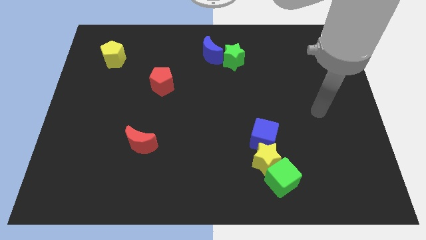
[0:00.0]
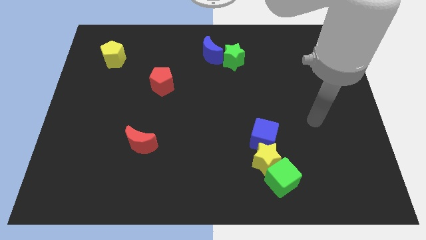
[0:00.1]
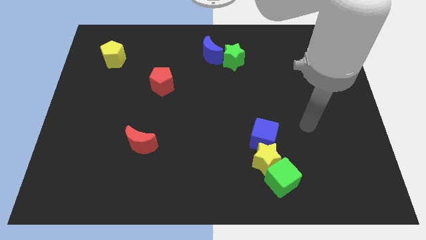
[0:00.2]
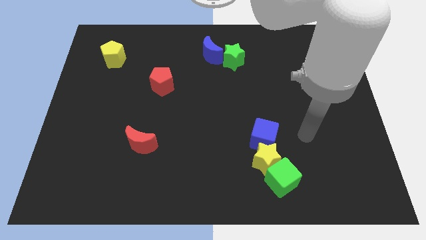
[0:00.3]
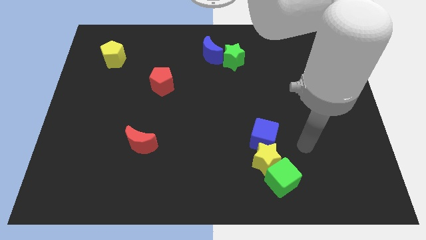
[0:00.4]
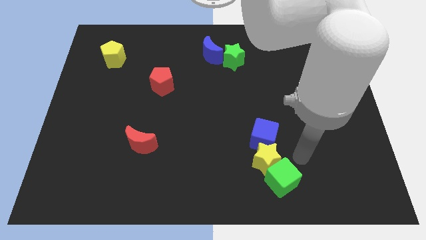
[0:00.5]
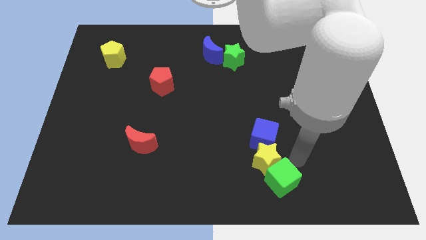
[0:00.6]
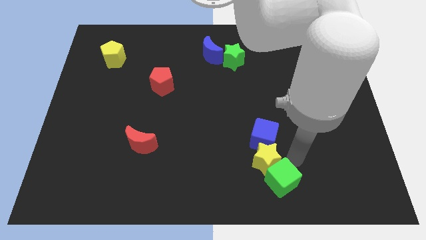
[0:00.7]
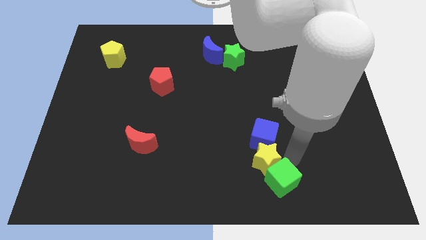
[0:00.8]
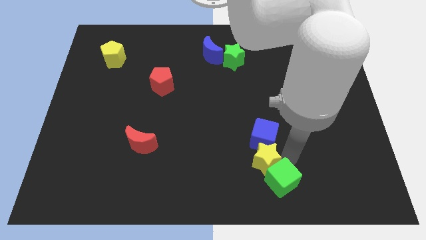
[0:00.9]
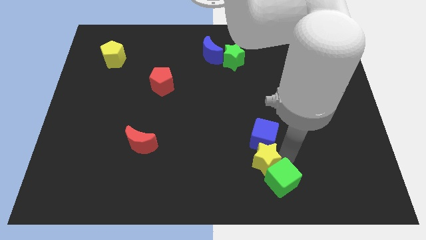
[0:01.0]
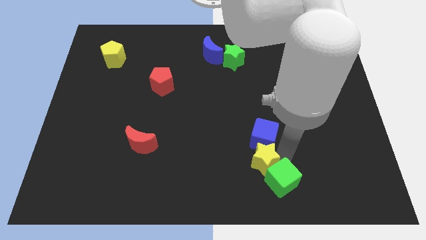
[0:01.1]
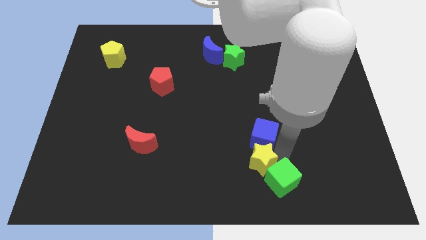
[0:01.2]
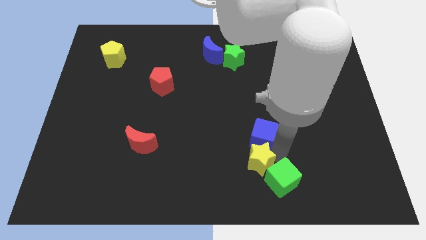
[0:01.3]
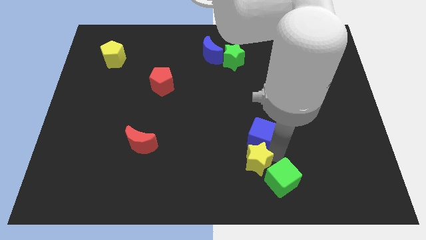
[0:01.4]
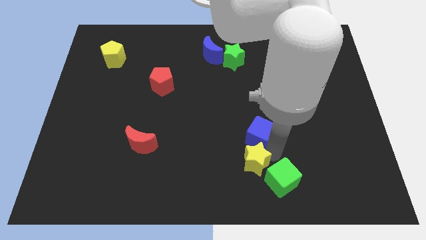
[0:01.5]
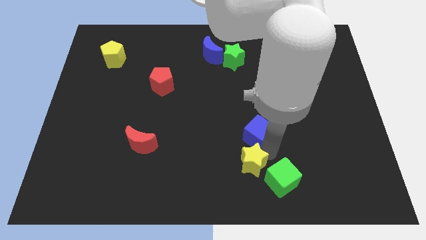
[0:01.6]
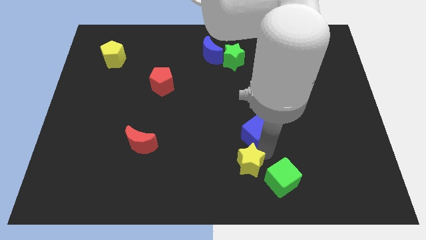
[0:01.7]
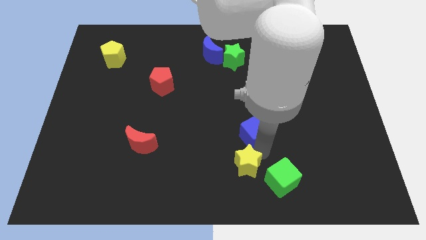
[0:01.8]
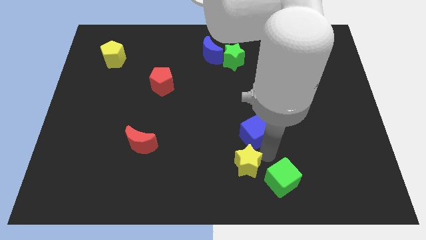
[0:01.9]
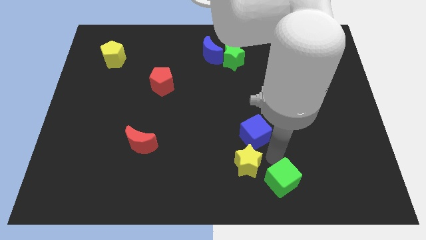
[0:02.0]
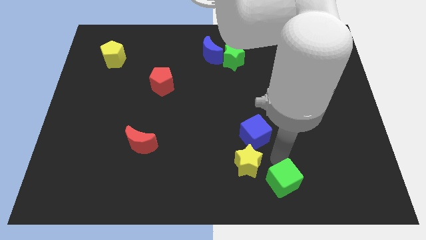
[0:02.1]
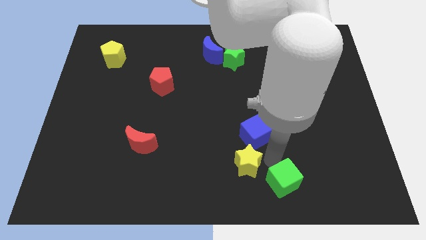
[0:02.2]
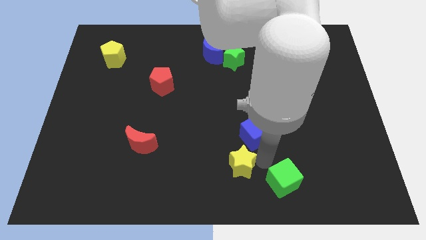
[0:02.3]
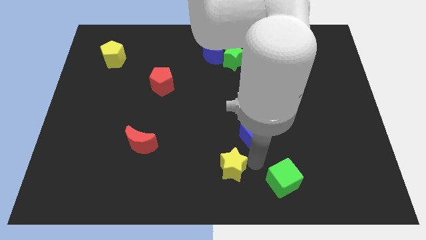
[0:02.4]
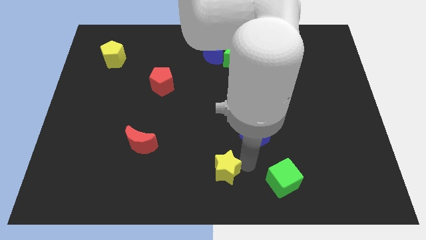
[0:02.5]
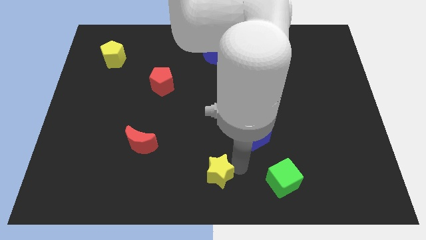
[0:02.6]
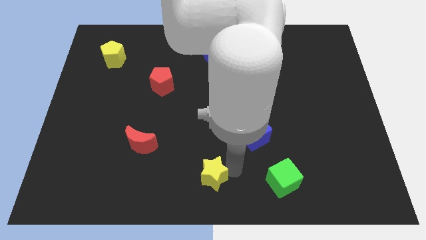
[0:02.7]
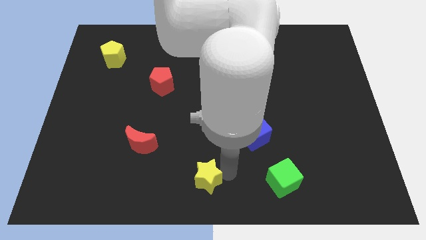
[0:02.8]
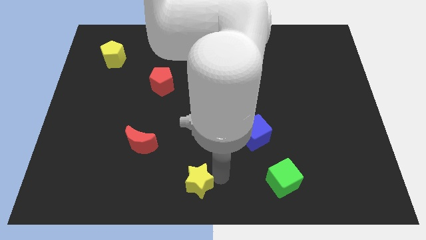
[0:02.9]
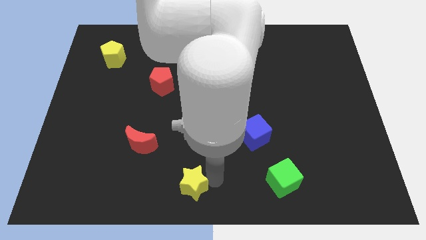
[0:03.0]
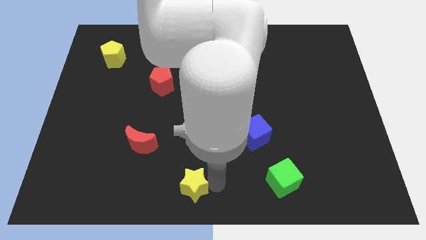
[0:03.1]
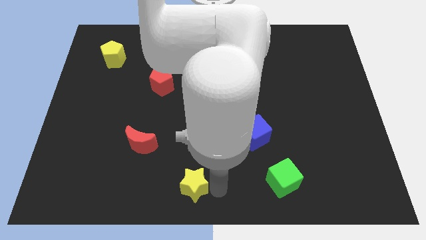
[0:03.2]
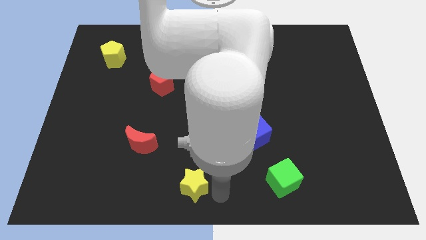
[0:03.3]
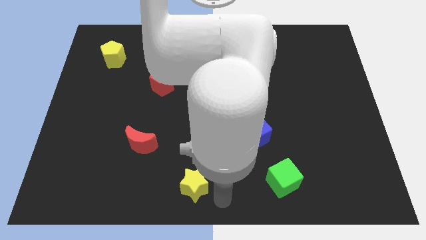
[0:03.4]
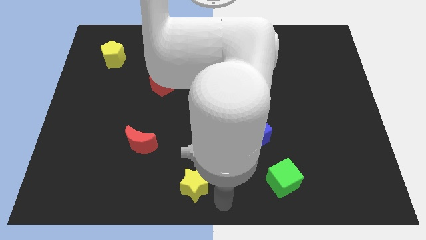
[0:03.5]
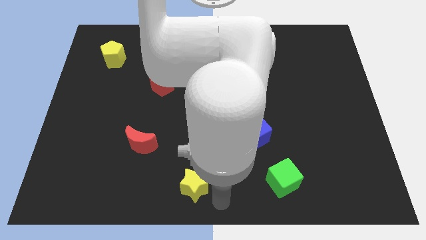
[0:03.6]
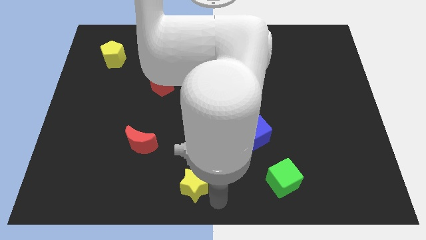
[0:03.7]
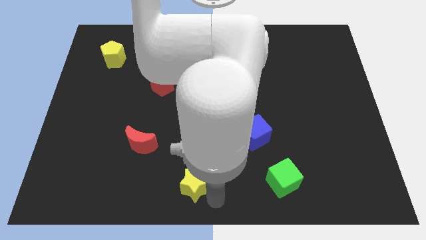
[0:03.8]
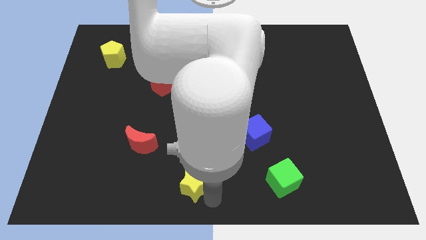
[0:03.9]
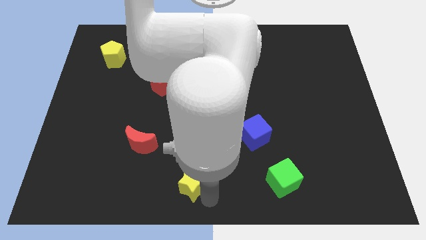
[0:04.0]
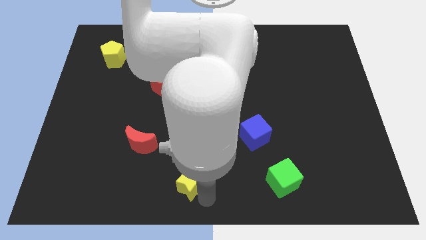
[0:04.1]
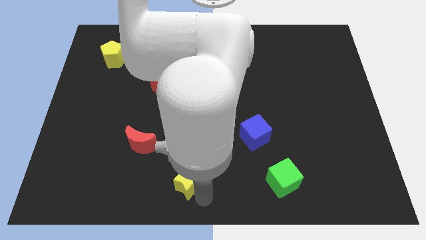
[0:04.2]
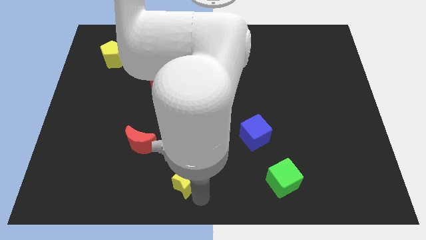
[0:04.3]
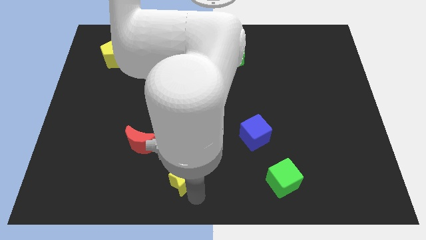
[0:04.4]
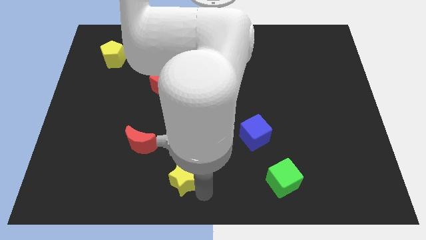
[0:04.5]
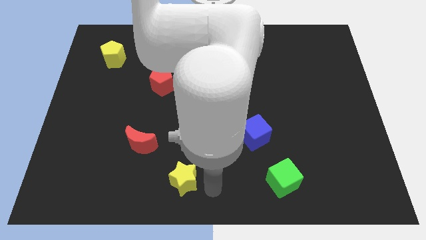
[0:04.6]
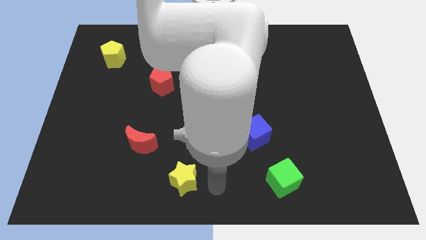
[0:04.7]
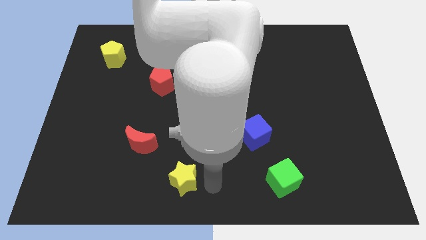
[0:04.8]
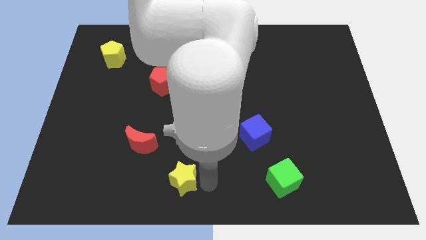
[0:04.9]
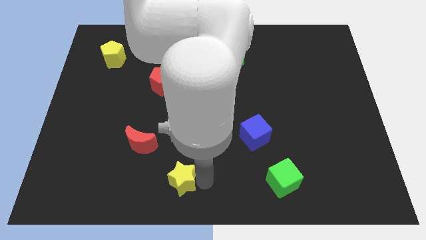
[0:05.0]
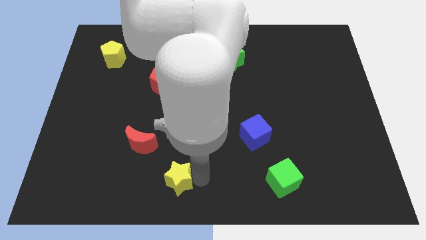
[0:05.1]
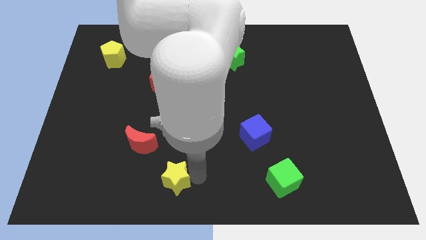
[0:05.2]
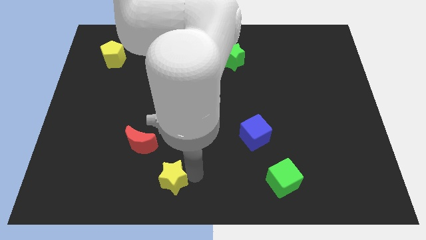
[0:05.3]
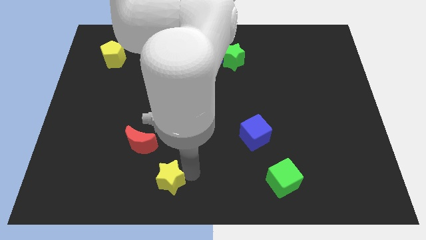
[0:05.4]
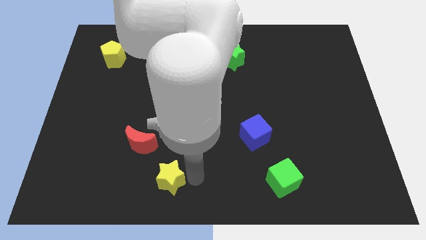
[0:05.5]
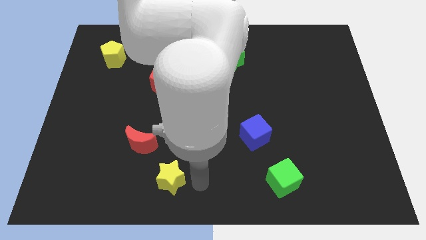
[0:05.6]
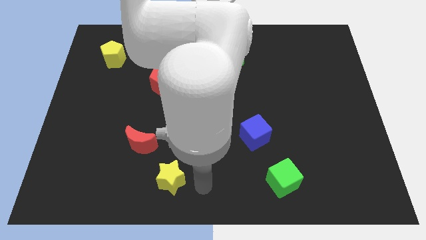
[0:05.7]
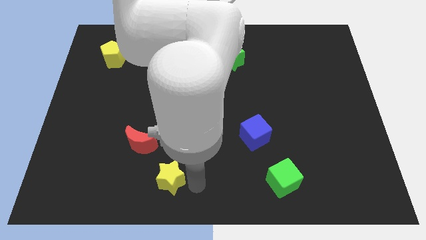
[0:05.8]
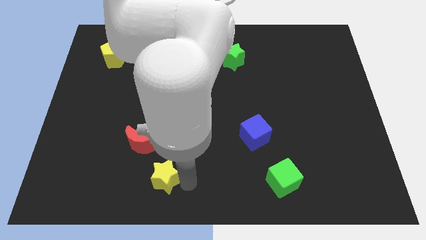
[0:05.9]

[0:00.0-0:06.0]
slide the yellow star to the left

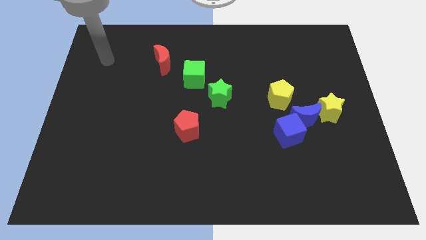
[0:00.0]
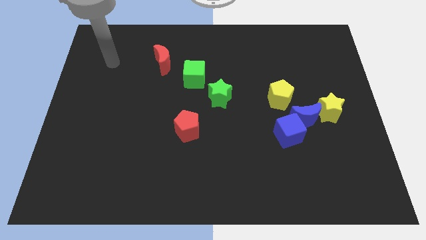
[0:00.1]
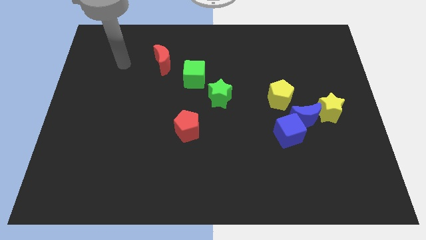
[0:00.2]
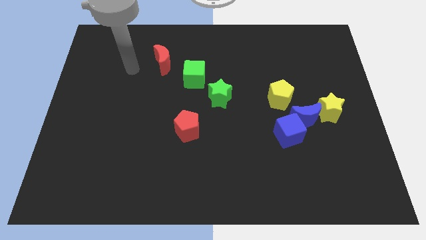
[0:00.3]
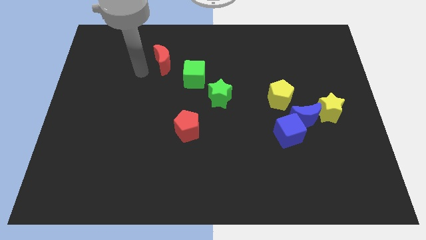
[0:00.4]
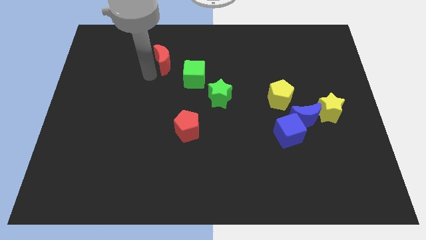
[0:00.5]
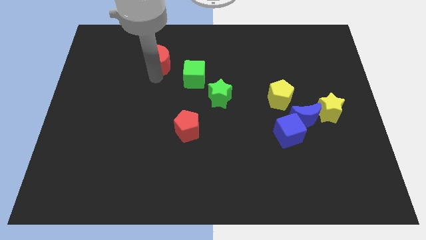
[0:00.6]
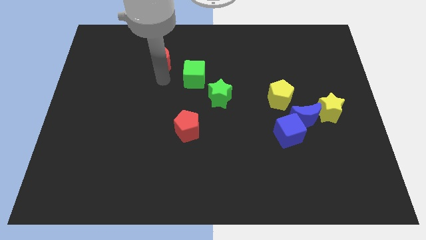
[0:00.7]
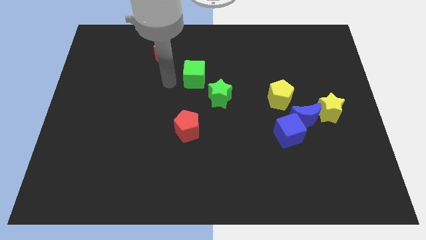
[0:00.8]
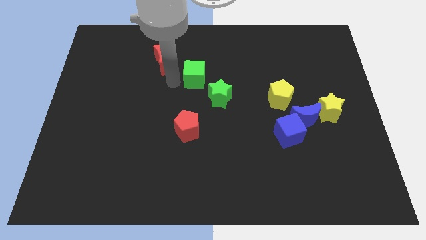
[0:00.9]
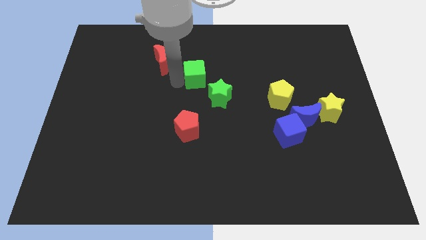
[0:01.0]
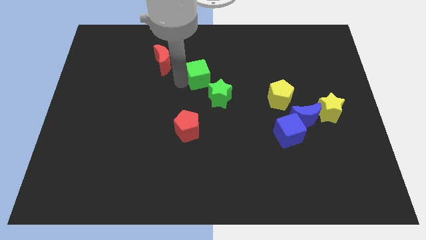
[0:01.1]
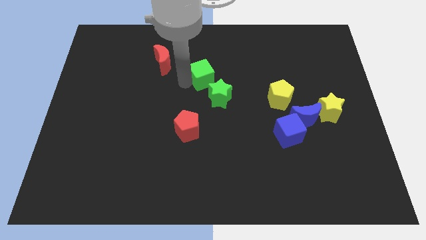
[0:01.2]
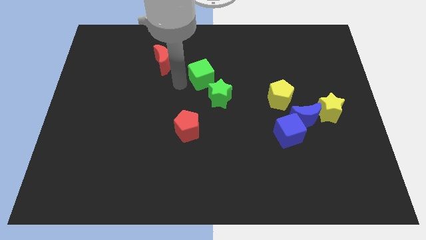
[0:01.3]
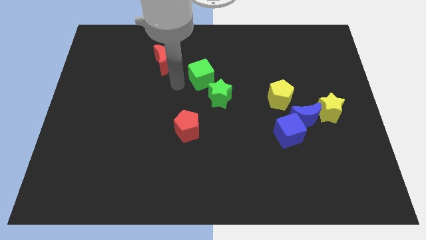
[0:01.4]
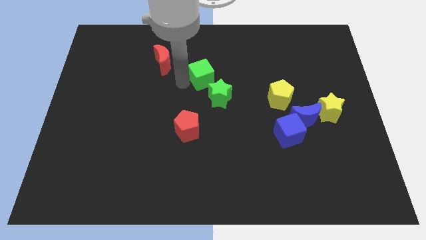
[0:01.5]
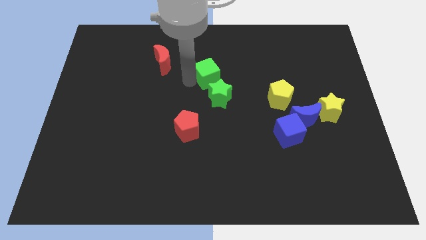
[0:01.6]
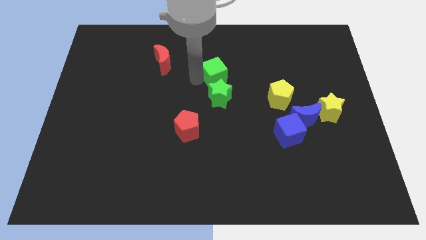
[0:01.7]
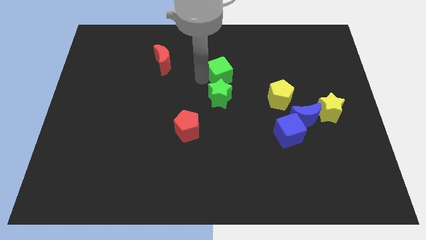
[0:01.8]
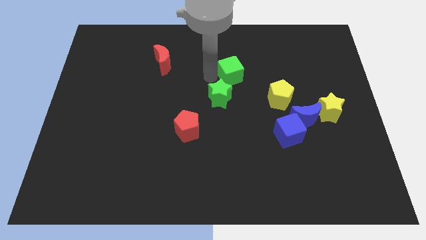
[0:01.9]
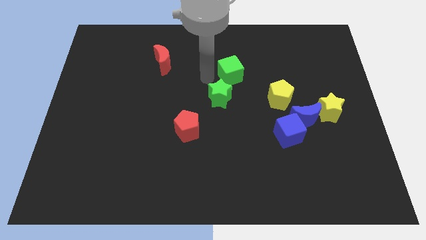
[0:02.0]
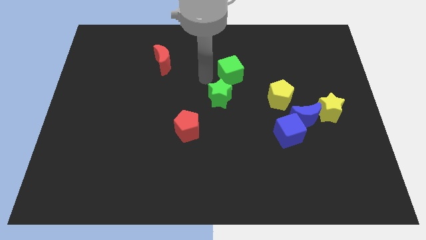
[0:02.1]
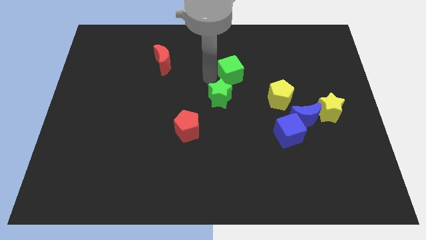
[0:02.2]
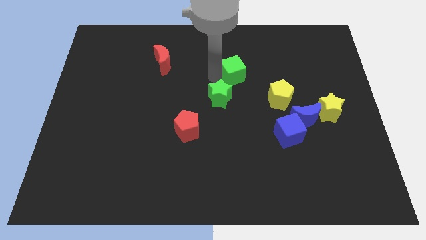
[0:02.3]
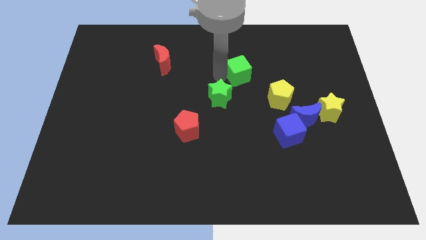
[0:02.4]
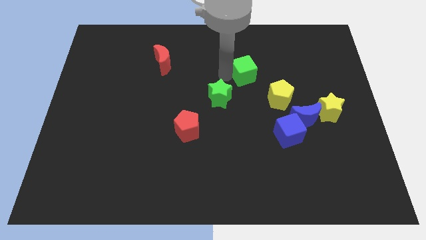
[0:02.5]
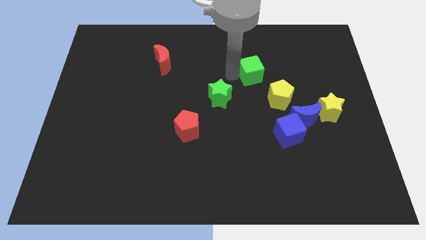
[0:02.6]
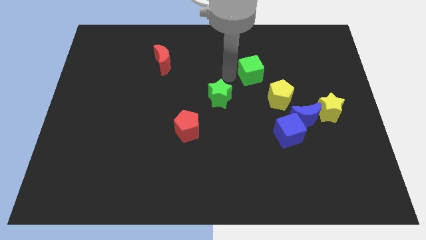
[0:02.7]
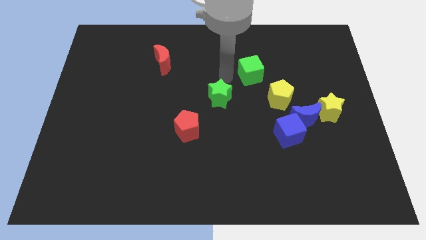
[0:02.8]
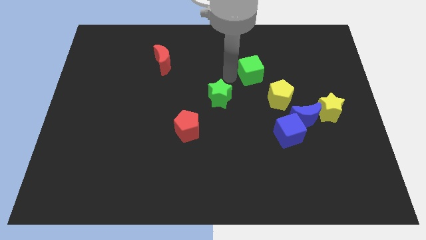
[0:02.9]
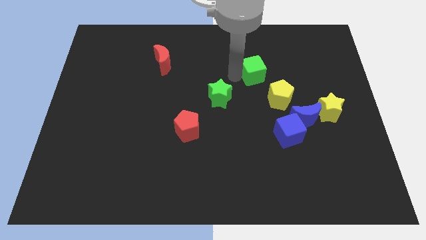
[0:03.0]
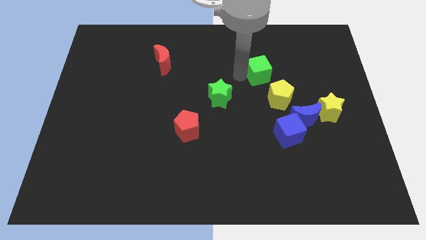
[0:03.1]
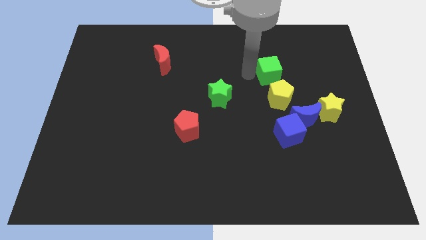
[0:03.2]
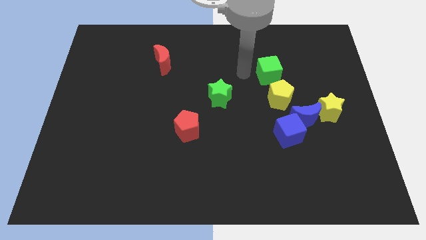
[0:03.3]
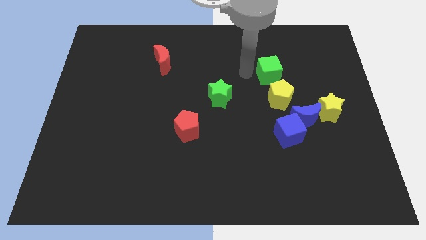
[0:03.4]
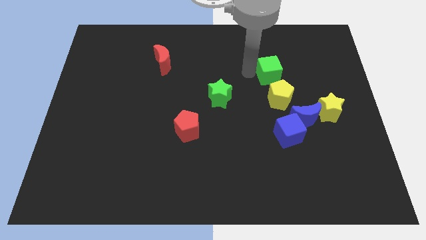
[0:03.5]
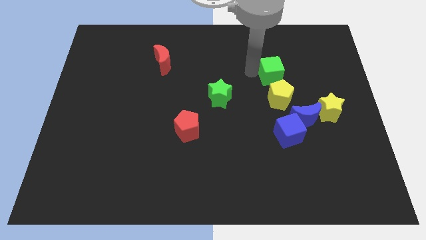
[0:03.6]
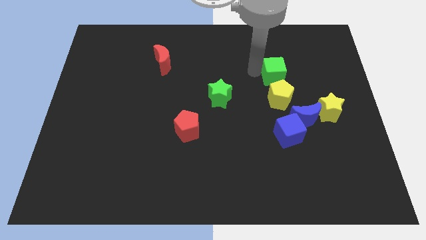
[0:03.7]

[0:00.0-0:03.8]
slide the green cube to the right
